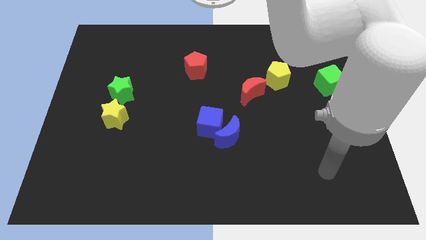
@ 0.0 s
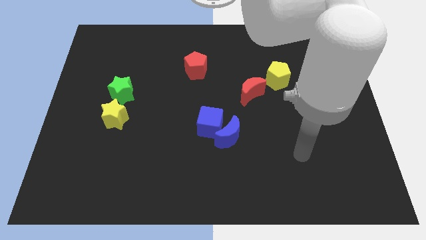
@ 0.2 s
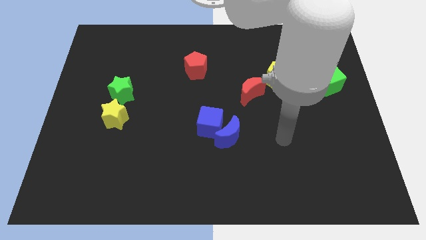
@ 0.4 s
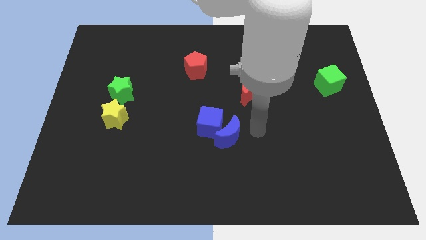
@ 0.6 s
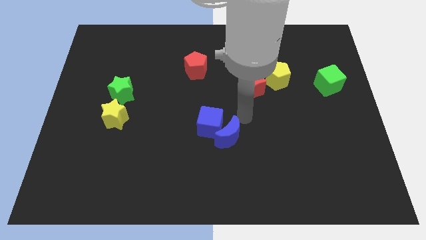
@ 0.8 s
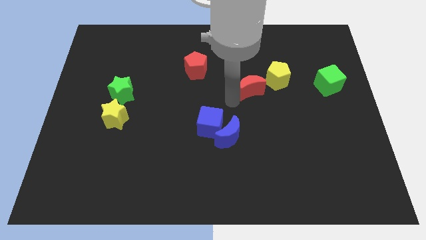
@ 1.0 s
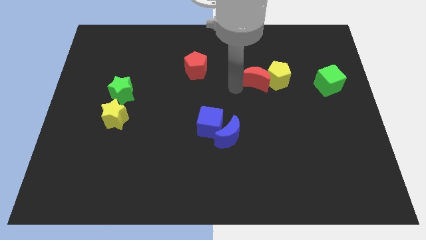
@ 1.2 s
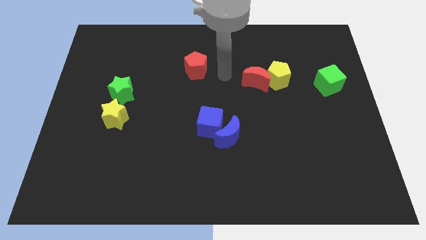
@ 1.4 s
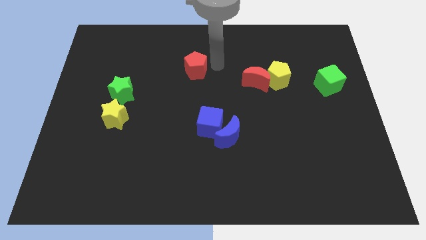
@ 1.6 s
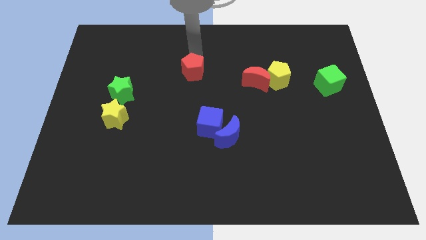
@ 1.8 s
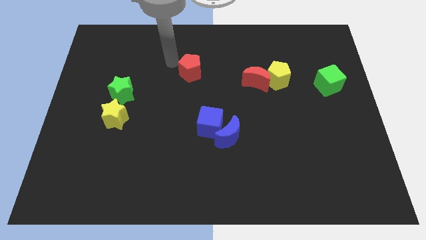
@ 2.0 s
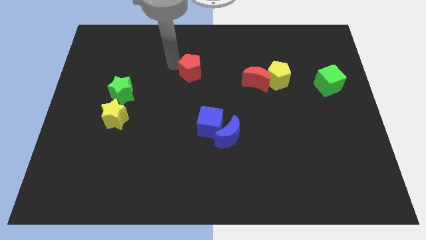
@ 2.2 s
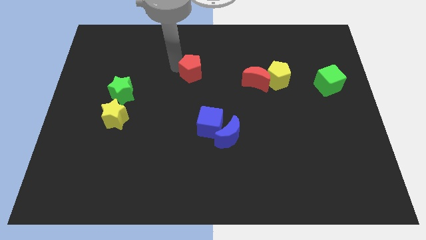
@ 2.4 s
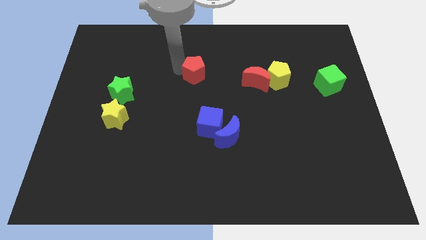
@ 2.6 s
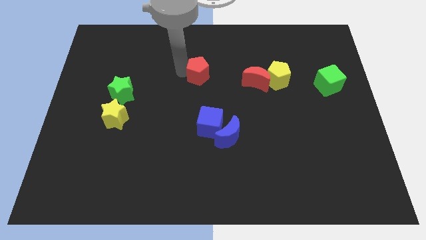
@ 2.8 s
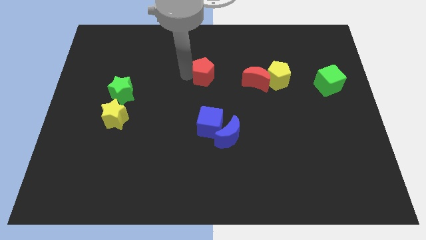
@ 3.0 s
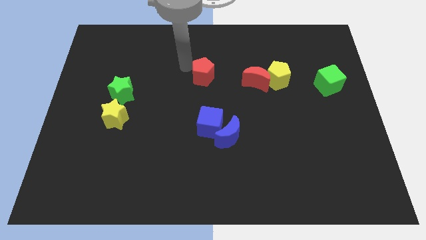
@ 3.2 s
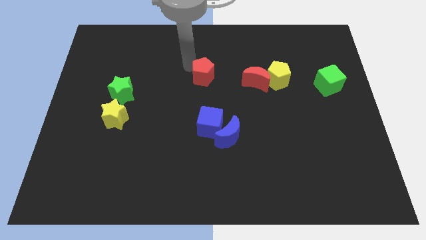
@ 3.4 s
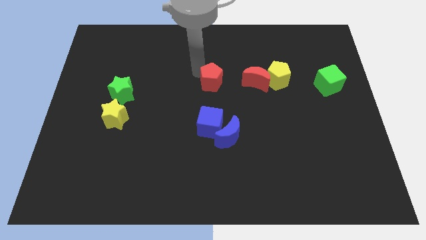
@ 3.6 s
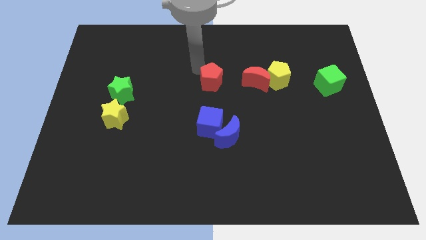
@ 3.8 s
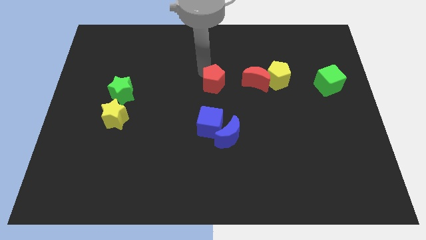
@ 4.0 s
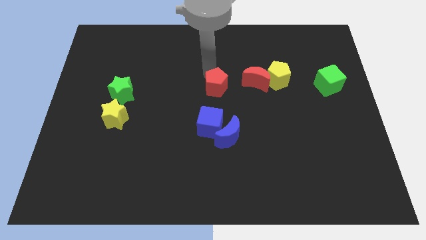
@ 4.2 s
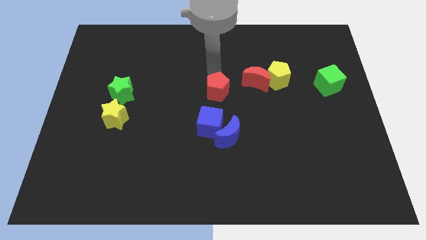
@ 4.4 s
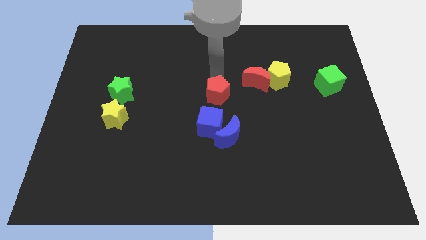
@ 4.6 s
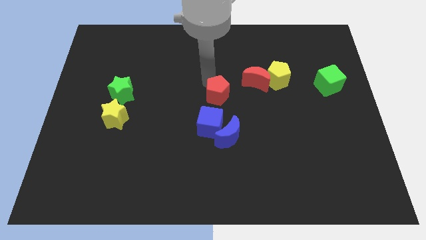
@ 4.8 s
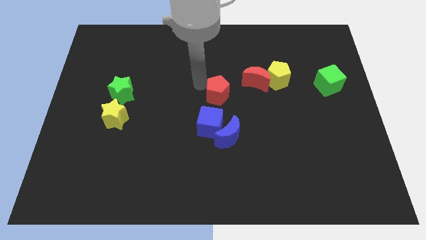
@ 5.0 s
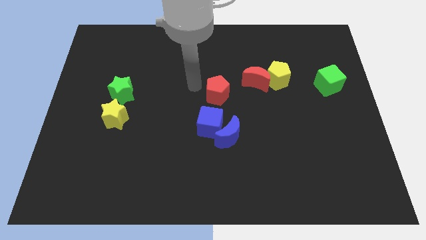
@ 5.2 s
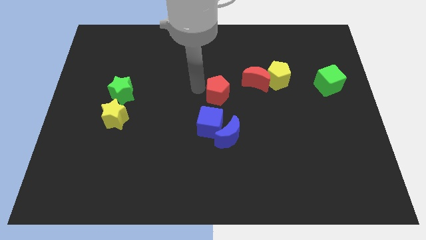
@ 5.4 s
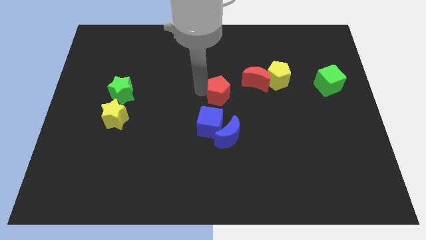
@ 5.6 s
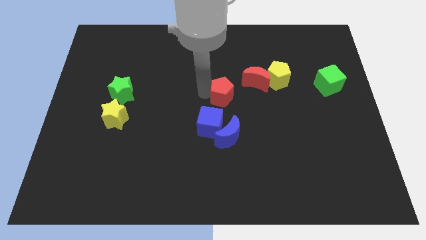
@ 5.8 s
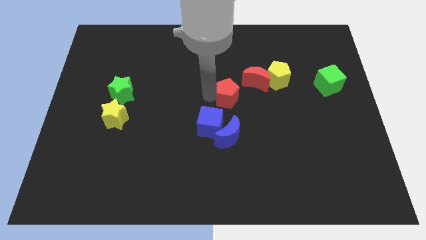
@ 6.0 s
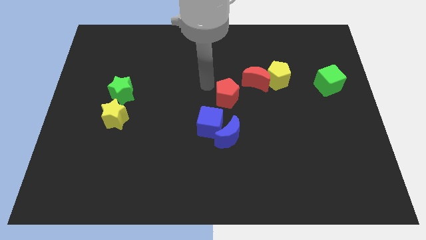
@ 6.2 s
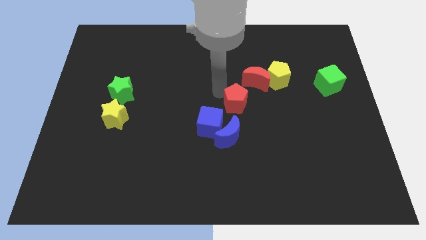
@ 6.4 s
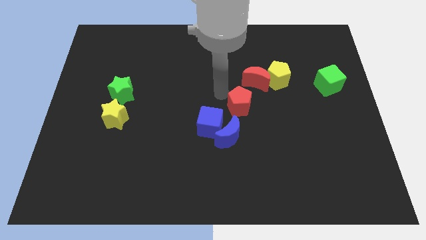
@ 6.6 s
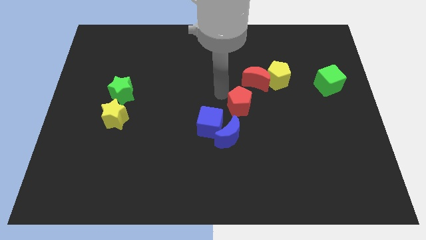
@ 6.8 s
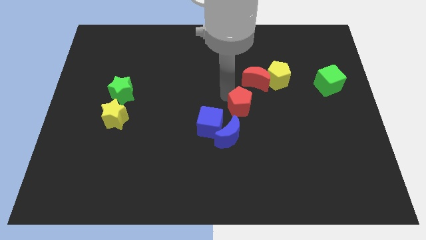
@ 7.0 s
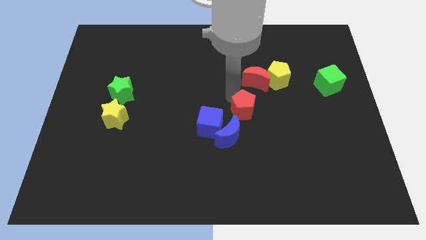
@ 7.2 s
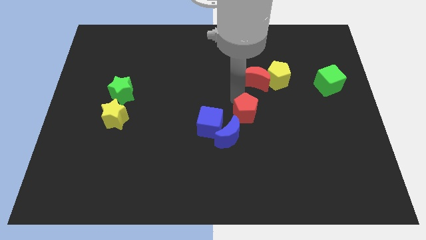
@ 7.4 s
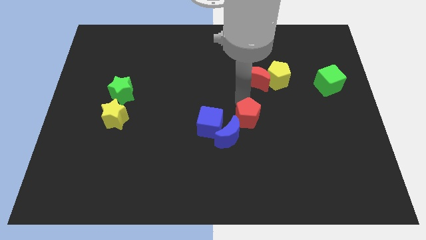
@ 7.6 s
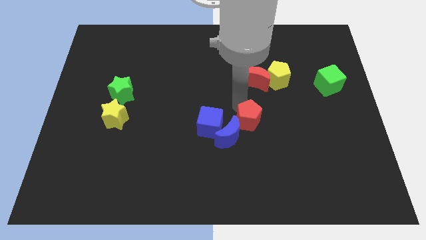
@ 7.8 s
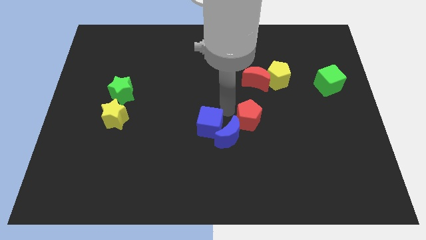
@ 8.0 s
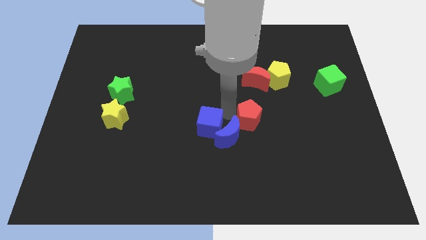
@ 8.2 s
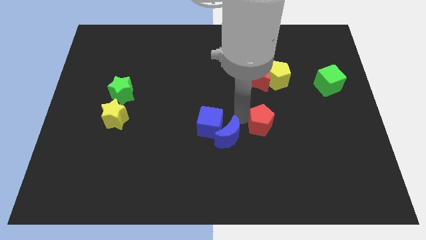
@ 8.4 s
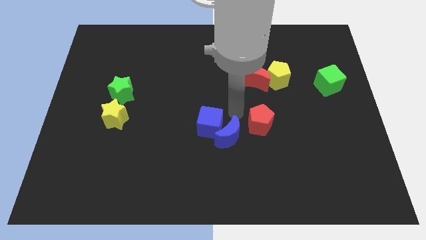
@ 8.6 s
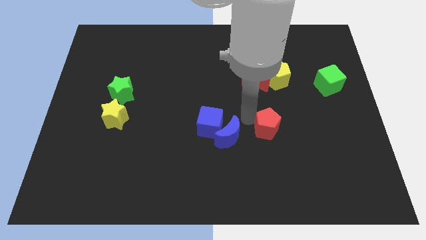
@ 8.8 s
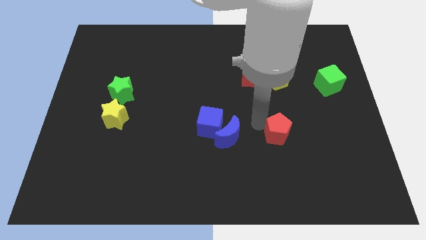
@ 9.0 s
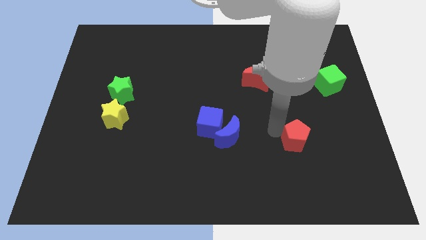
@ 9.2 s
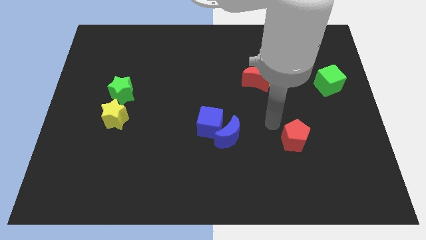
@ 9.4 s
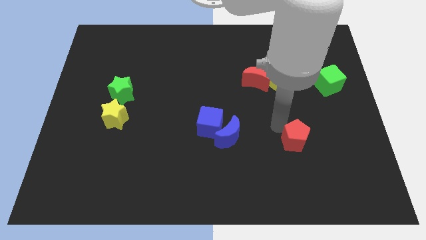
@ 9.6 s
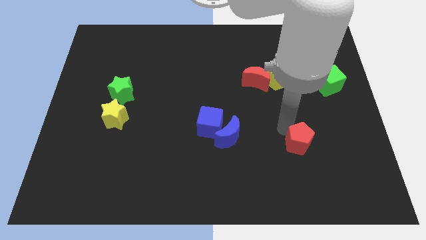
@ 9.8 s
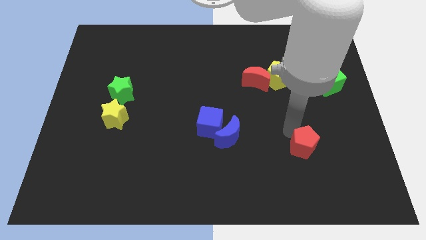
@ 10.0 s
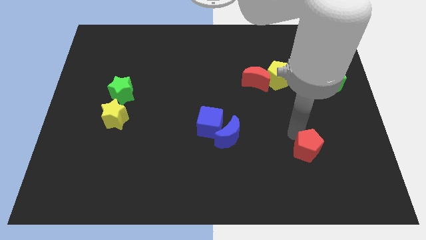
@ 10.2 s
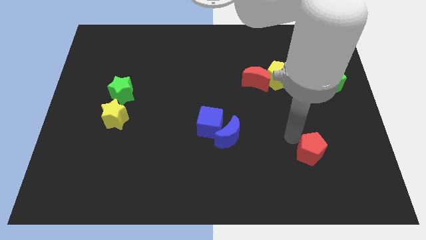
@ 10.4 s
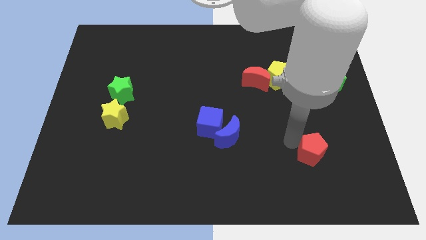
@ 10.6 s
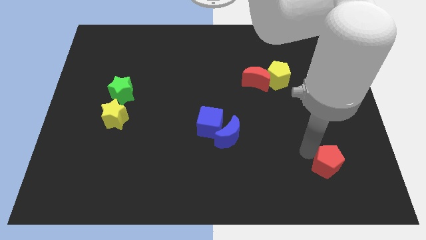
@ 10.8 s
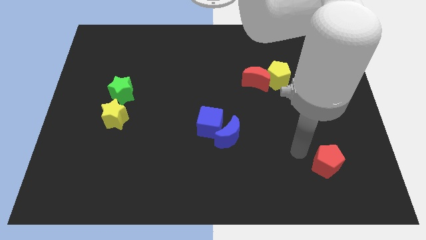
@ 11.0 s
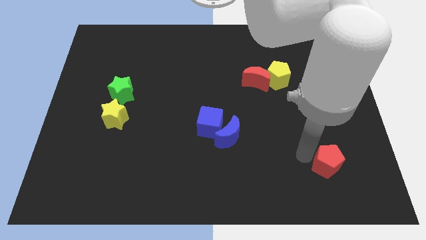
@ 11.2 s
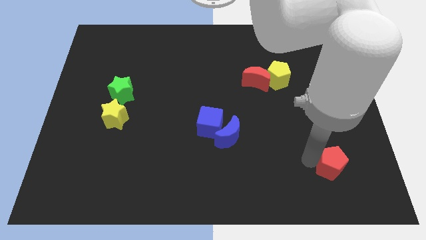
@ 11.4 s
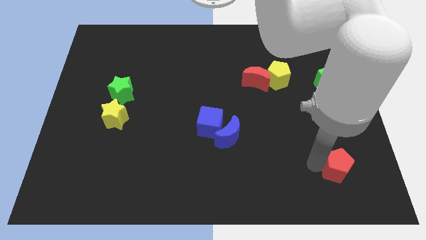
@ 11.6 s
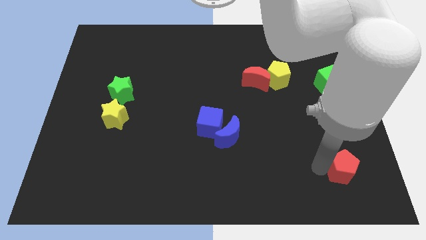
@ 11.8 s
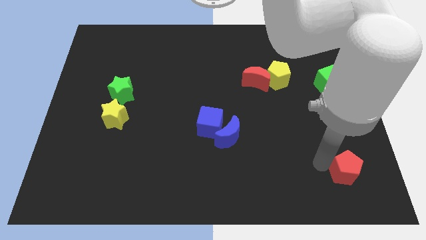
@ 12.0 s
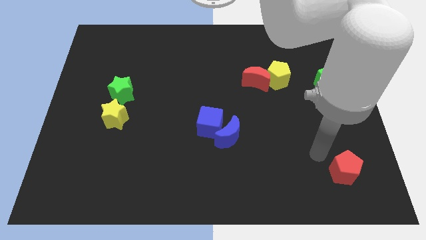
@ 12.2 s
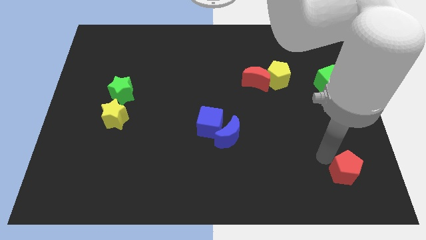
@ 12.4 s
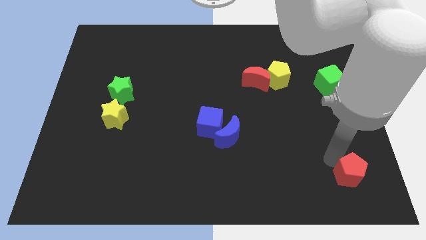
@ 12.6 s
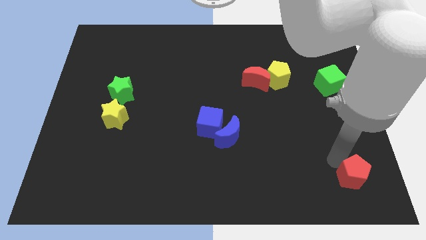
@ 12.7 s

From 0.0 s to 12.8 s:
move the red pentagon to the bottom right of the board
